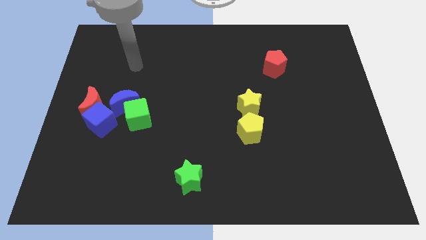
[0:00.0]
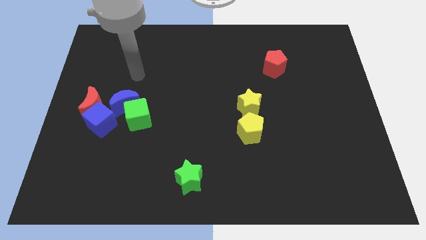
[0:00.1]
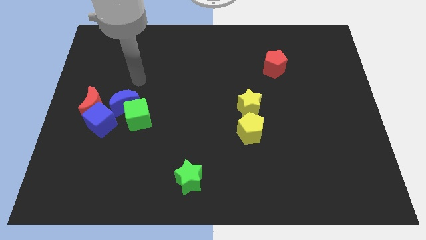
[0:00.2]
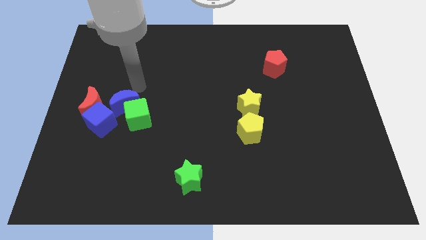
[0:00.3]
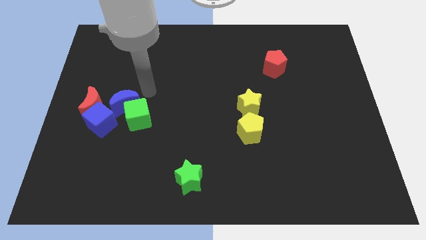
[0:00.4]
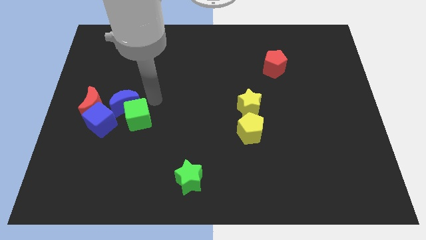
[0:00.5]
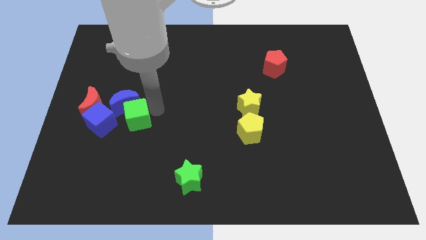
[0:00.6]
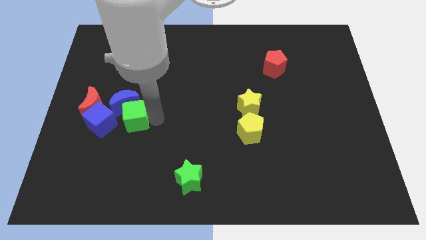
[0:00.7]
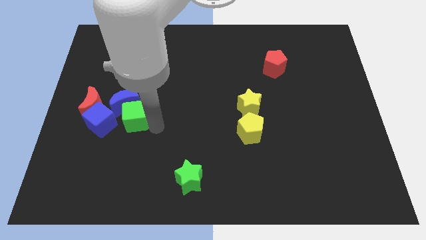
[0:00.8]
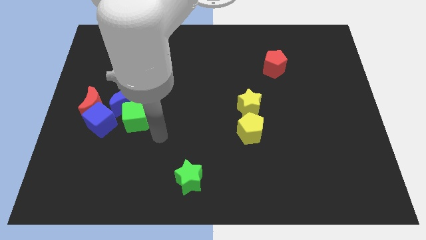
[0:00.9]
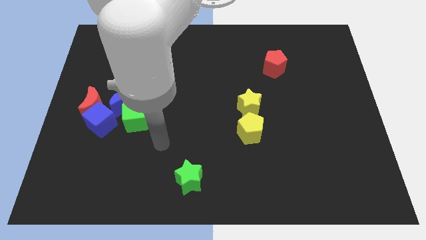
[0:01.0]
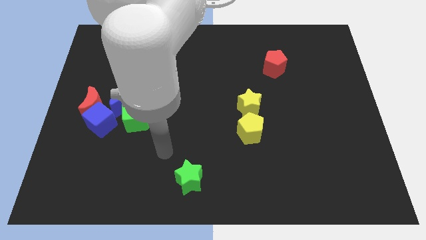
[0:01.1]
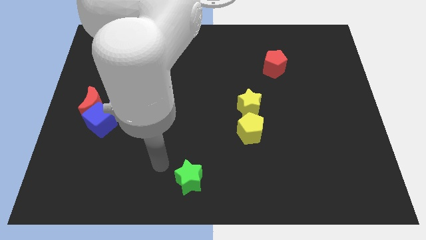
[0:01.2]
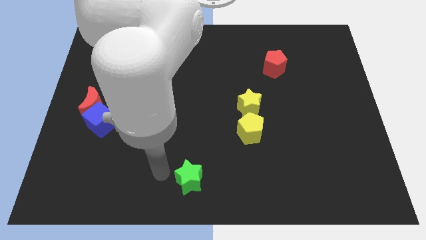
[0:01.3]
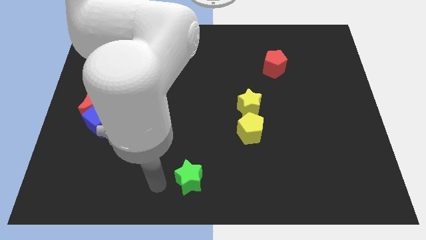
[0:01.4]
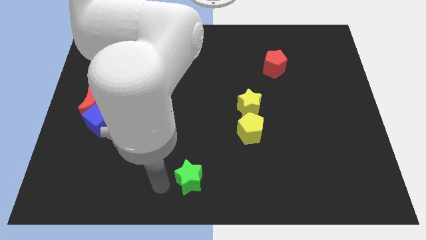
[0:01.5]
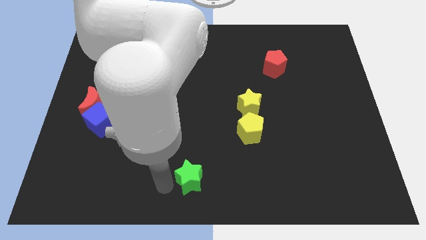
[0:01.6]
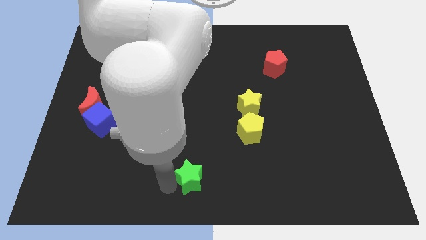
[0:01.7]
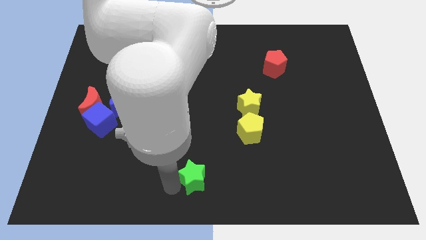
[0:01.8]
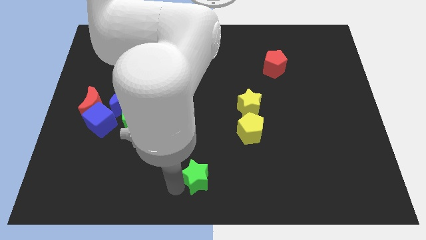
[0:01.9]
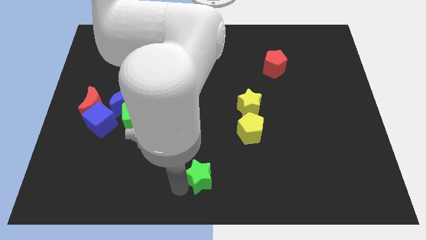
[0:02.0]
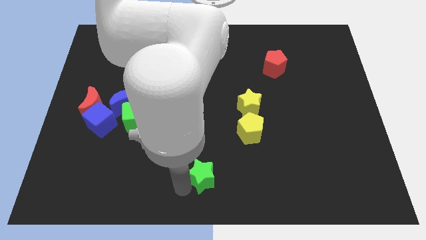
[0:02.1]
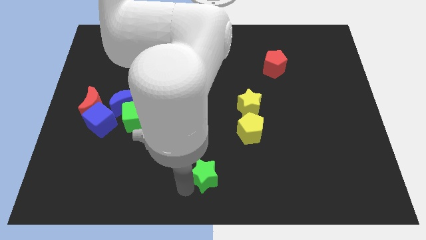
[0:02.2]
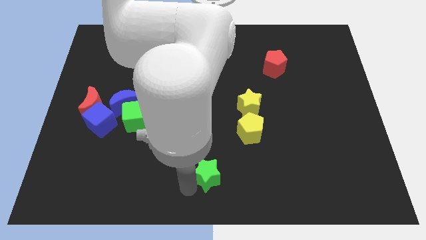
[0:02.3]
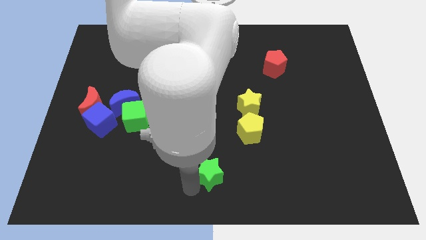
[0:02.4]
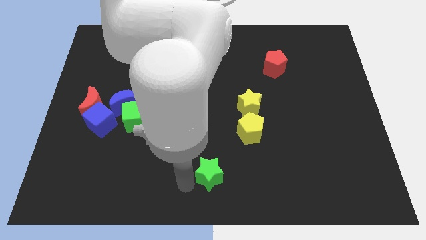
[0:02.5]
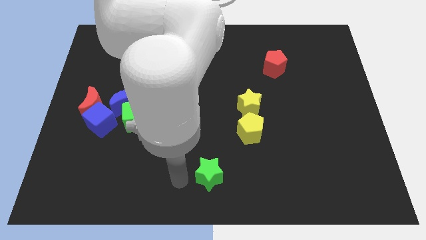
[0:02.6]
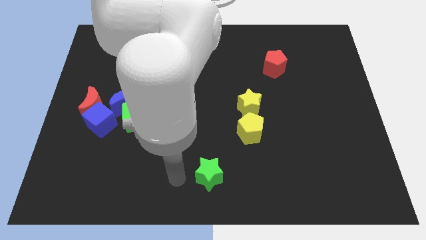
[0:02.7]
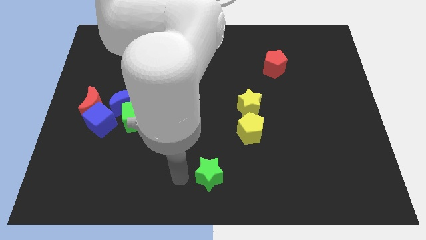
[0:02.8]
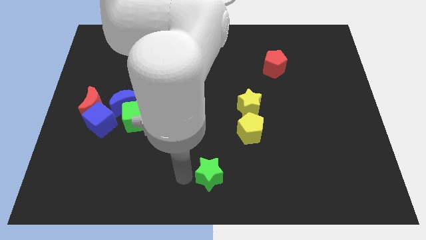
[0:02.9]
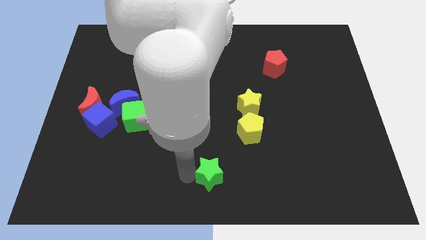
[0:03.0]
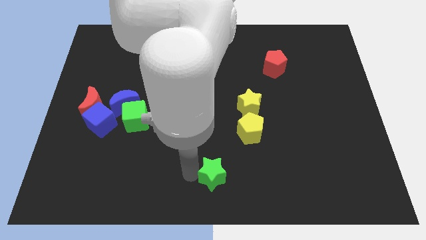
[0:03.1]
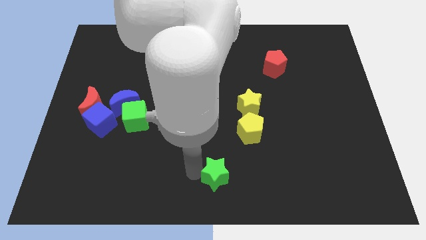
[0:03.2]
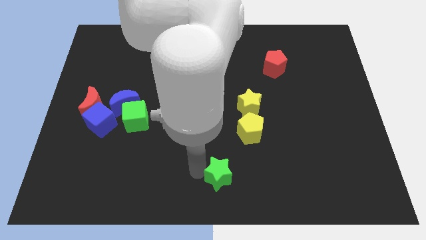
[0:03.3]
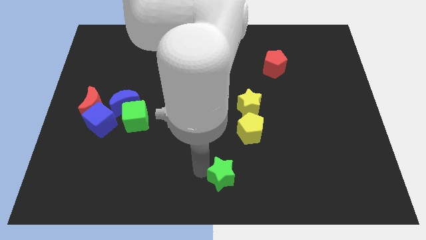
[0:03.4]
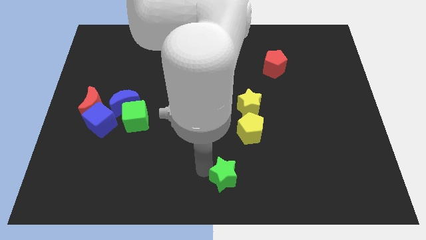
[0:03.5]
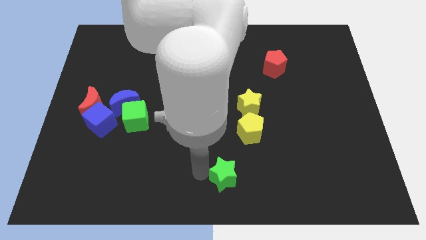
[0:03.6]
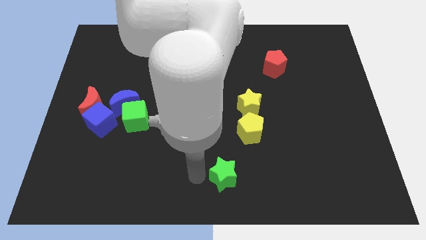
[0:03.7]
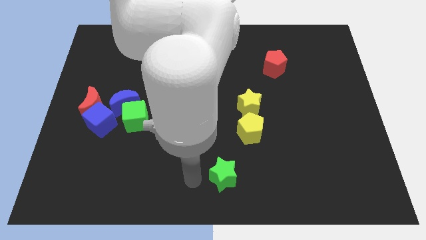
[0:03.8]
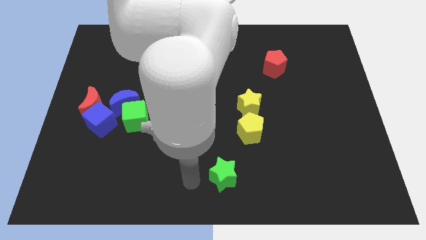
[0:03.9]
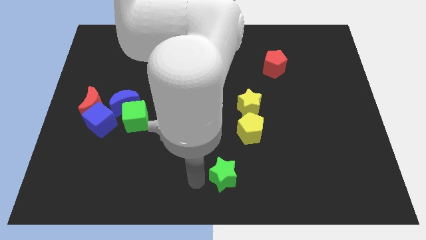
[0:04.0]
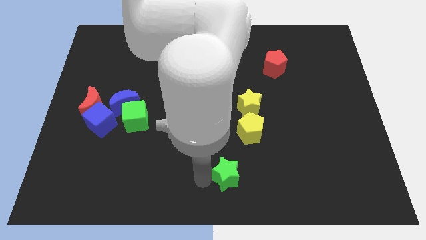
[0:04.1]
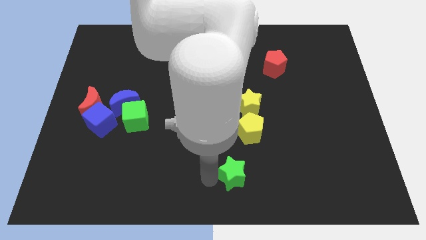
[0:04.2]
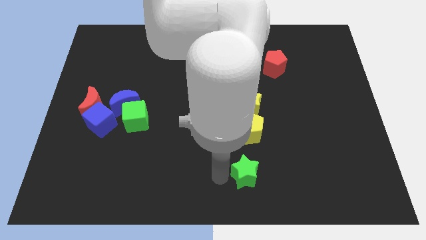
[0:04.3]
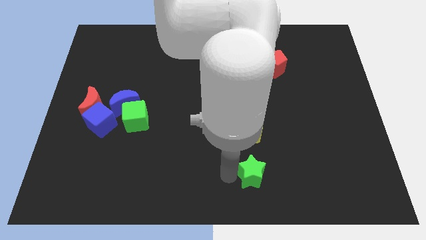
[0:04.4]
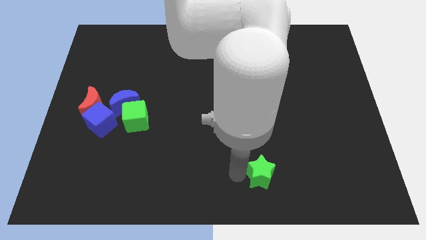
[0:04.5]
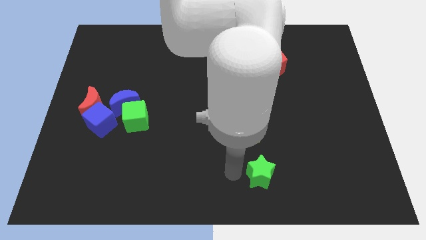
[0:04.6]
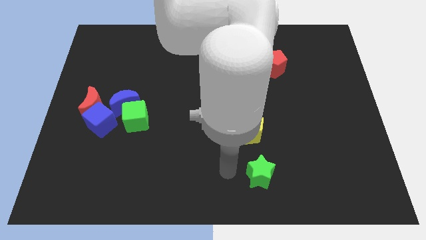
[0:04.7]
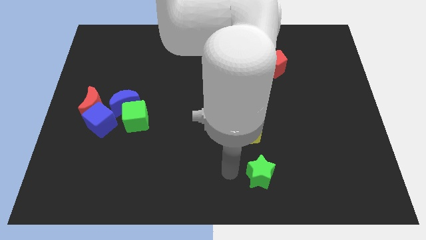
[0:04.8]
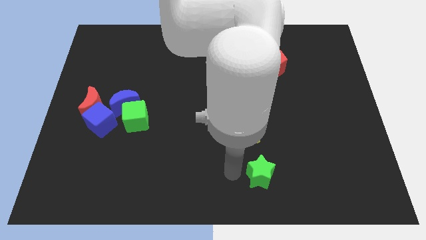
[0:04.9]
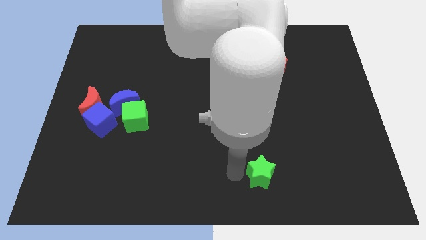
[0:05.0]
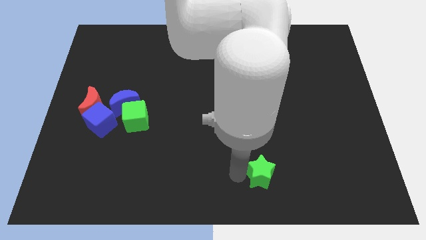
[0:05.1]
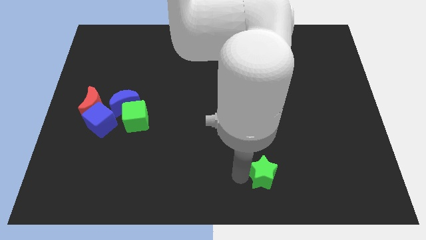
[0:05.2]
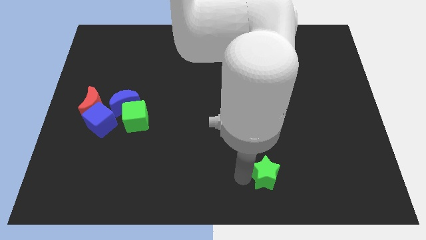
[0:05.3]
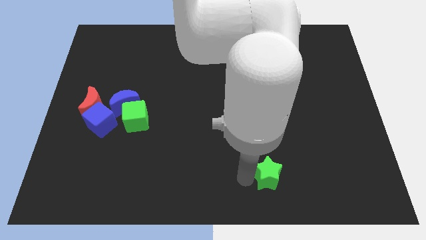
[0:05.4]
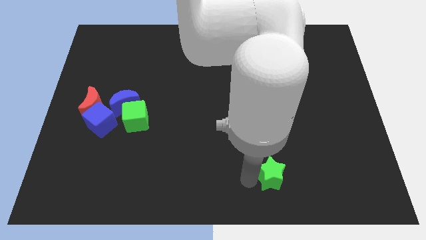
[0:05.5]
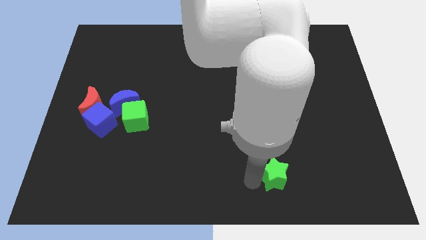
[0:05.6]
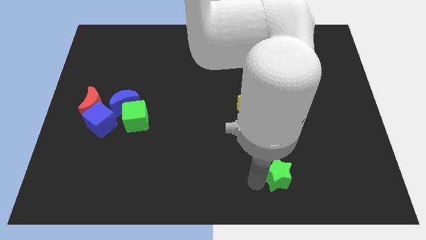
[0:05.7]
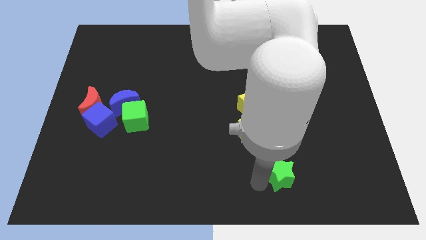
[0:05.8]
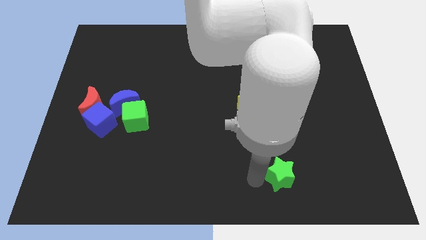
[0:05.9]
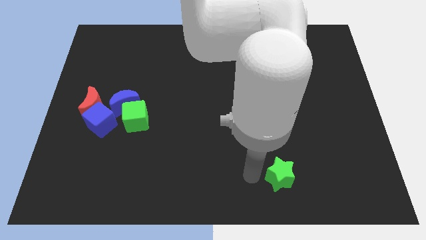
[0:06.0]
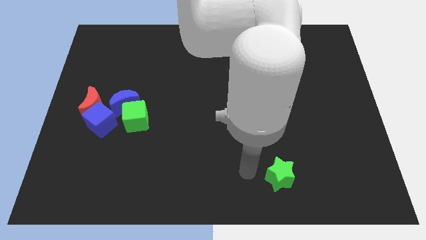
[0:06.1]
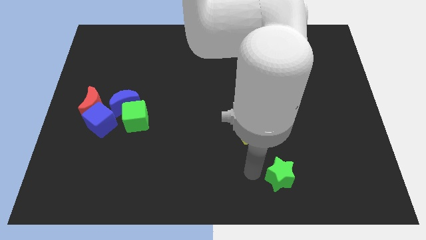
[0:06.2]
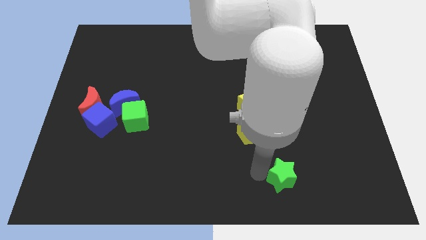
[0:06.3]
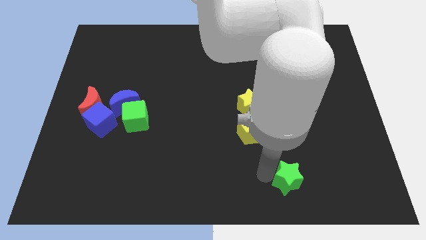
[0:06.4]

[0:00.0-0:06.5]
push the green star to the right

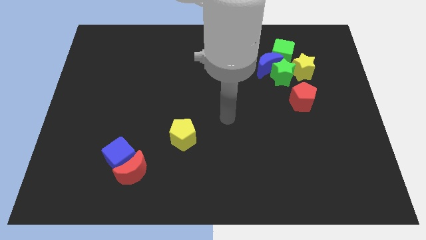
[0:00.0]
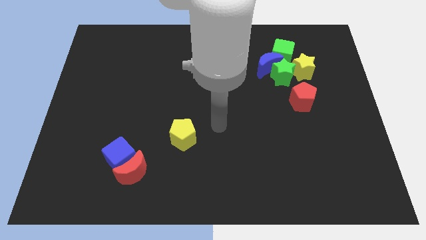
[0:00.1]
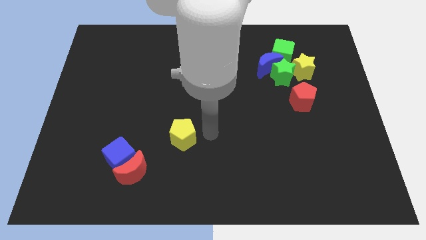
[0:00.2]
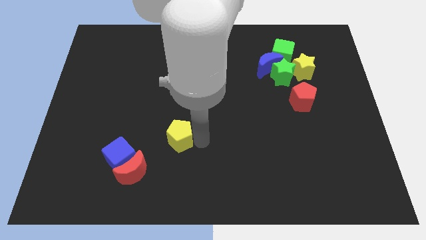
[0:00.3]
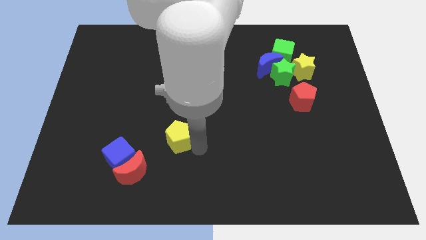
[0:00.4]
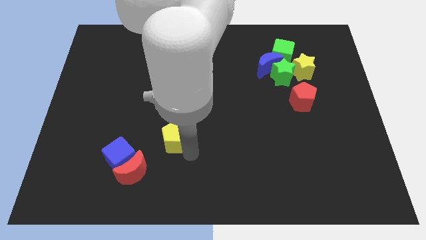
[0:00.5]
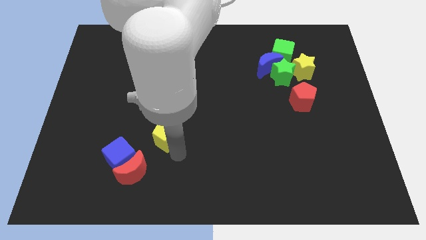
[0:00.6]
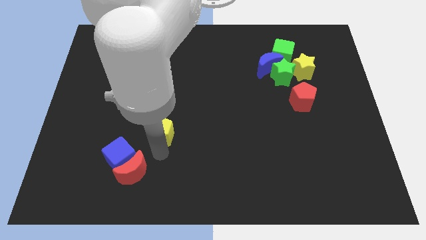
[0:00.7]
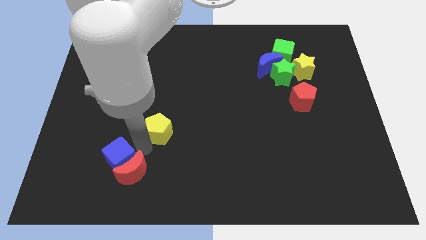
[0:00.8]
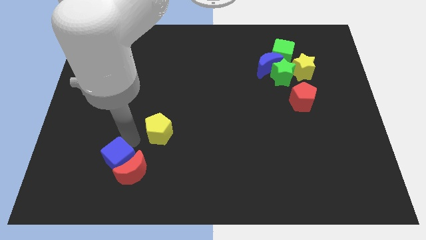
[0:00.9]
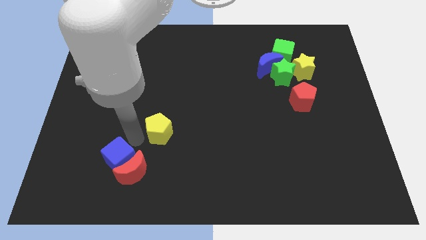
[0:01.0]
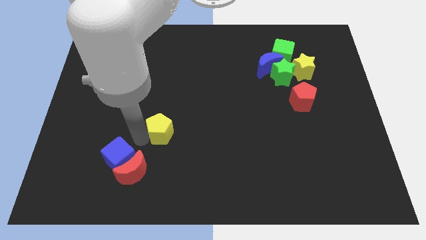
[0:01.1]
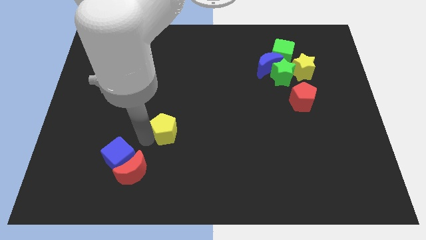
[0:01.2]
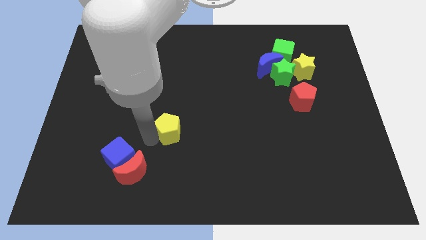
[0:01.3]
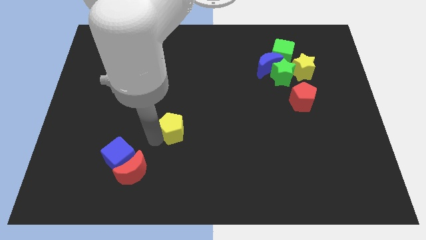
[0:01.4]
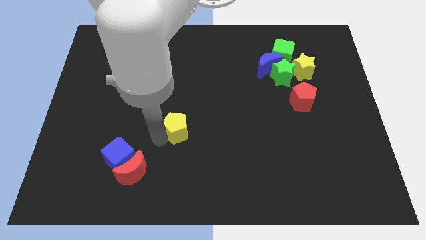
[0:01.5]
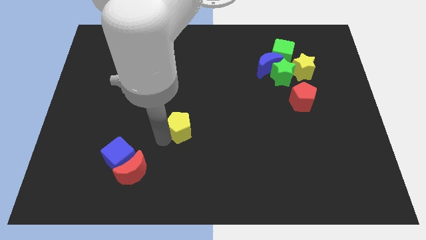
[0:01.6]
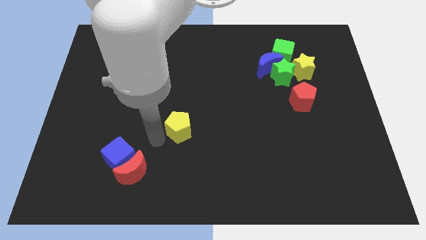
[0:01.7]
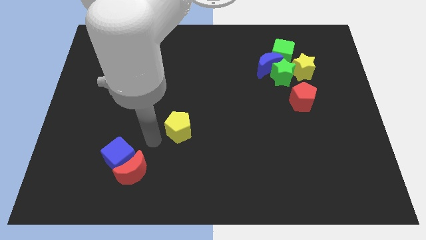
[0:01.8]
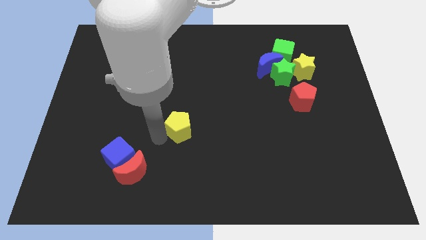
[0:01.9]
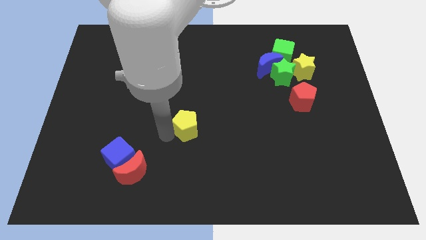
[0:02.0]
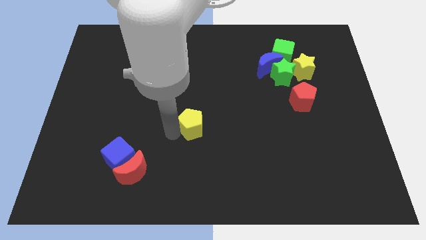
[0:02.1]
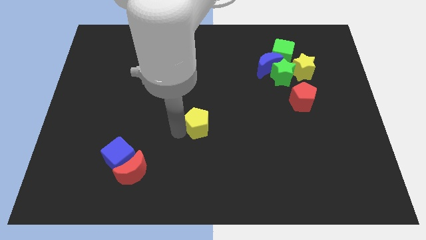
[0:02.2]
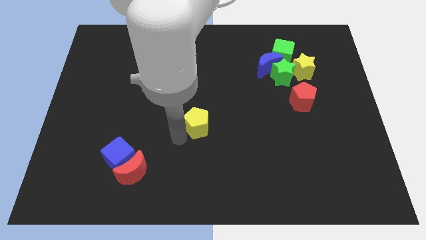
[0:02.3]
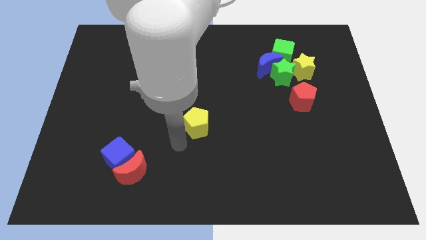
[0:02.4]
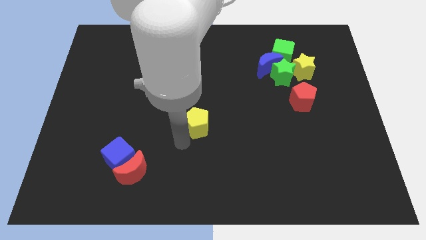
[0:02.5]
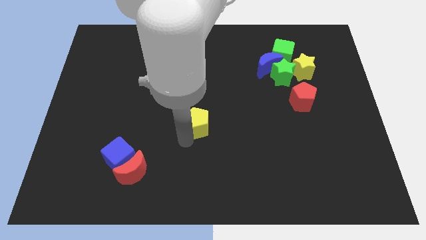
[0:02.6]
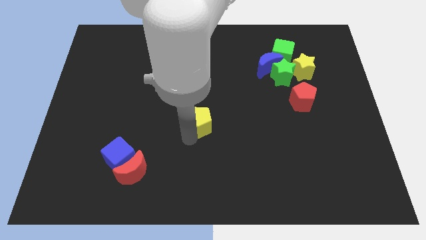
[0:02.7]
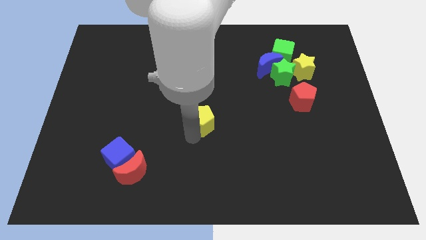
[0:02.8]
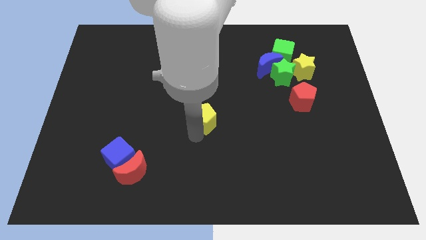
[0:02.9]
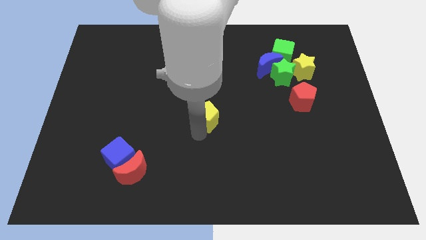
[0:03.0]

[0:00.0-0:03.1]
push the yellow pentagon upwards and right a bit
